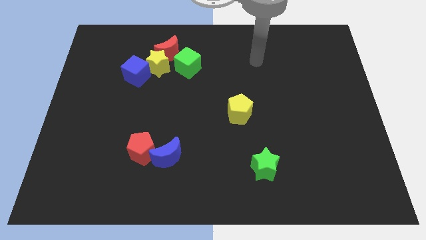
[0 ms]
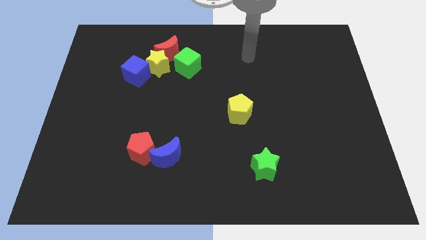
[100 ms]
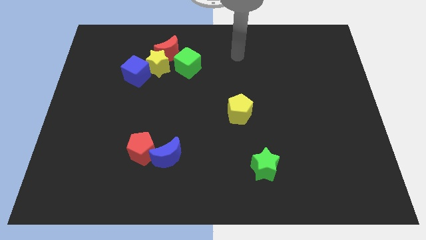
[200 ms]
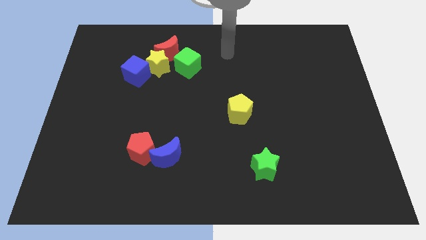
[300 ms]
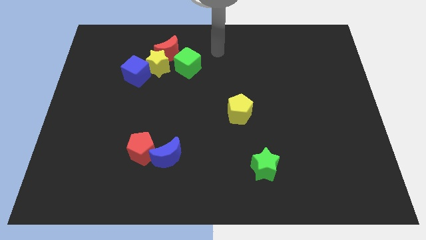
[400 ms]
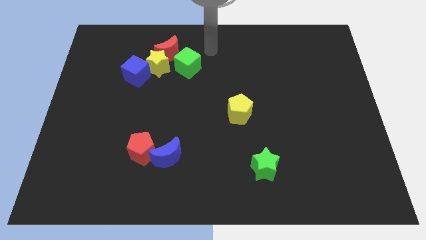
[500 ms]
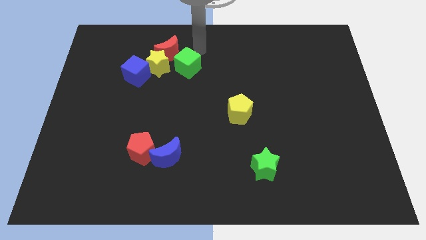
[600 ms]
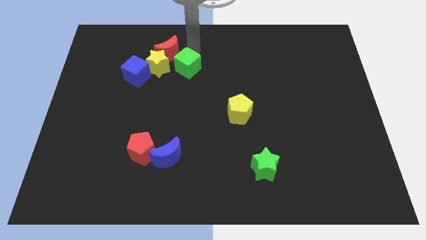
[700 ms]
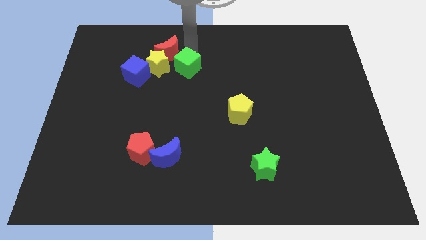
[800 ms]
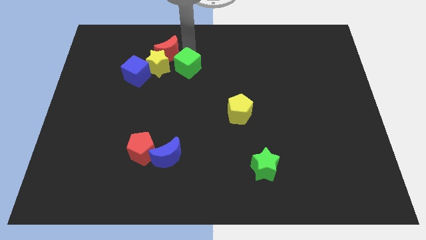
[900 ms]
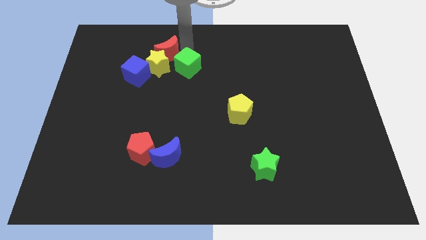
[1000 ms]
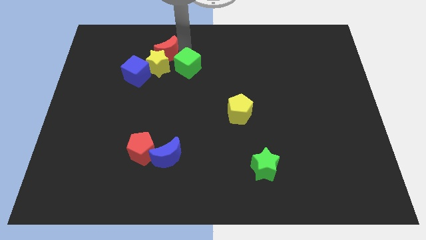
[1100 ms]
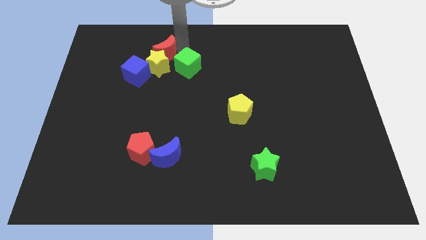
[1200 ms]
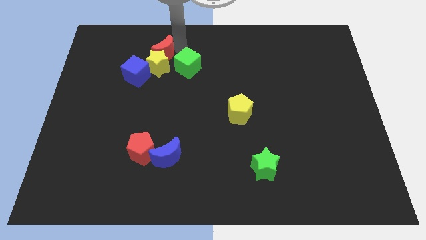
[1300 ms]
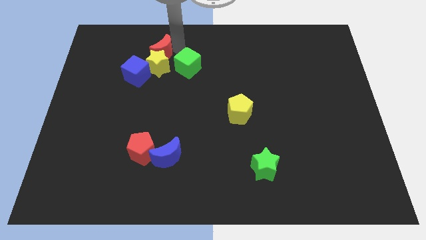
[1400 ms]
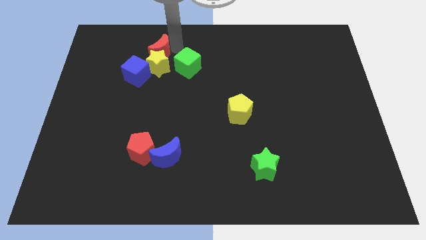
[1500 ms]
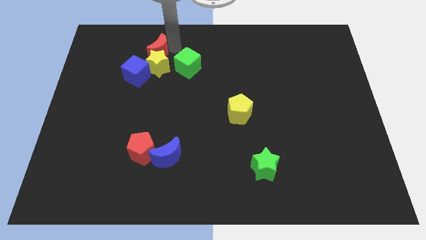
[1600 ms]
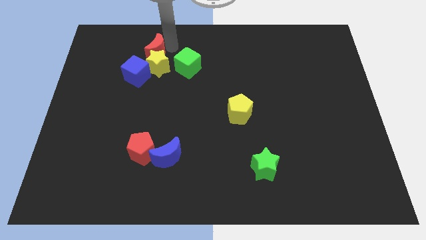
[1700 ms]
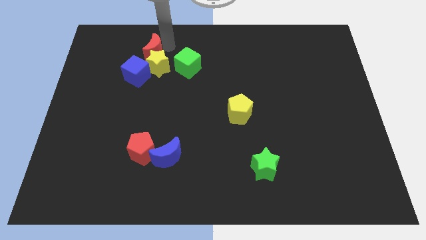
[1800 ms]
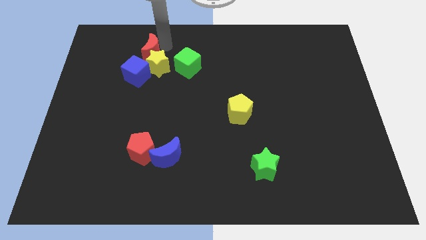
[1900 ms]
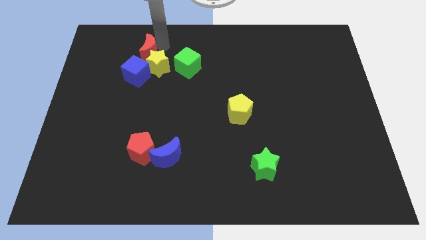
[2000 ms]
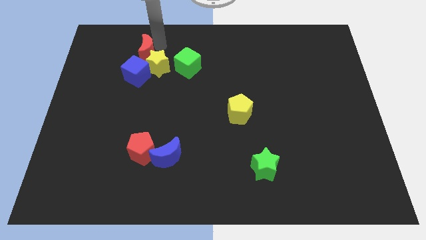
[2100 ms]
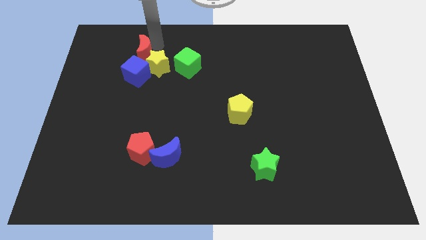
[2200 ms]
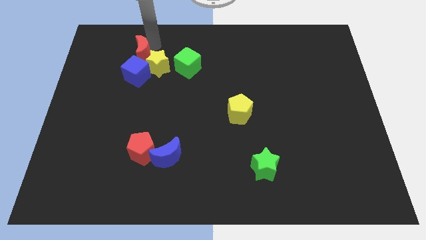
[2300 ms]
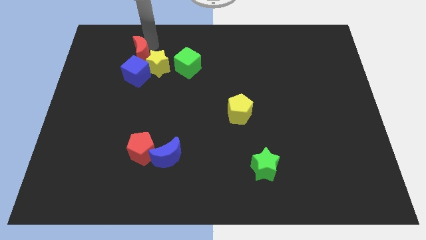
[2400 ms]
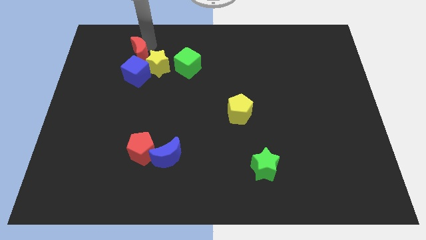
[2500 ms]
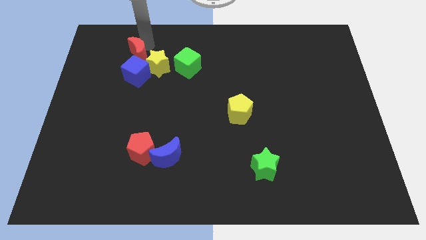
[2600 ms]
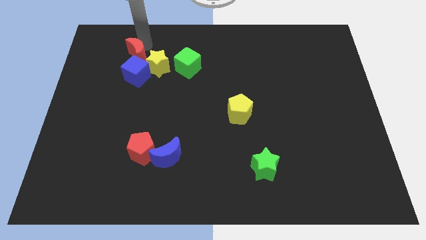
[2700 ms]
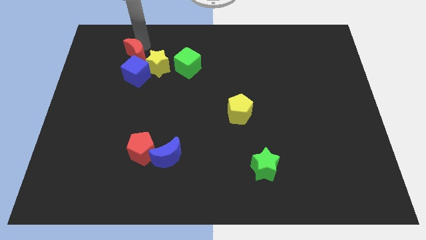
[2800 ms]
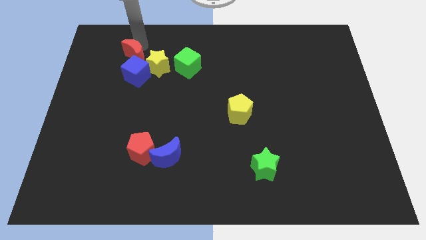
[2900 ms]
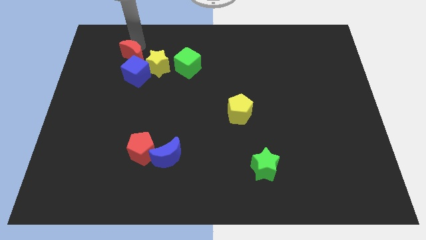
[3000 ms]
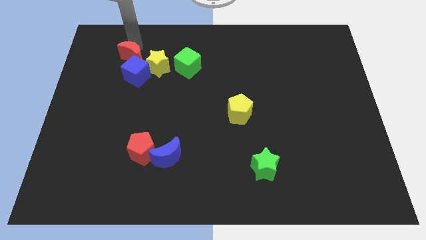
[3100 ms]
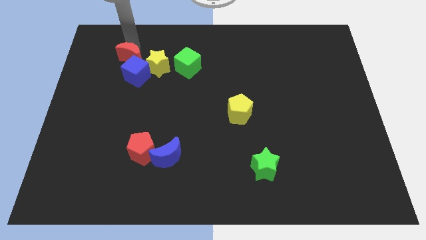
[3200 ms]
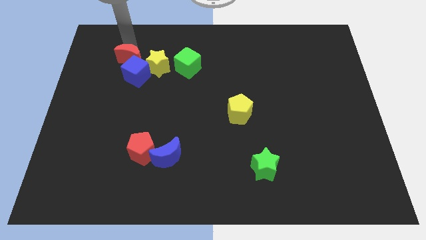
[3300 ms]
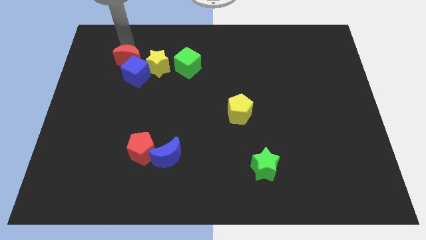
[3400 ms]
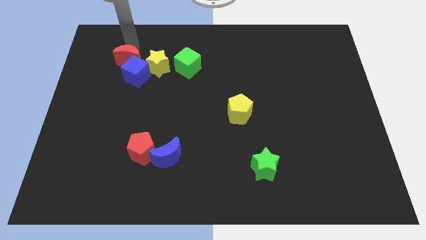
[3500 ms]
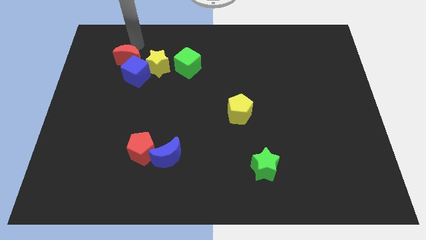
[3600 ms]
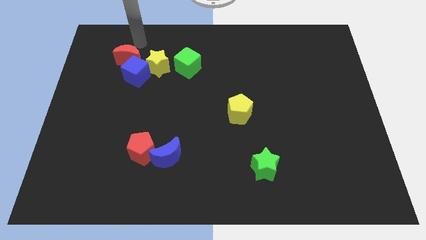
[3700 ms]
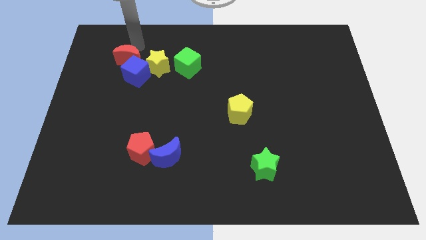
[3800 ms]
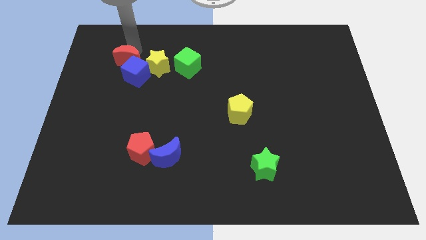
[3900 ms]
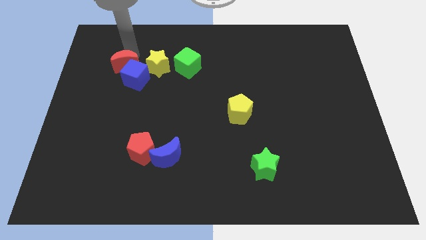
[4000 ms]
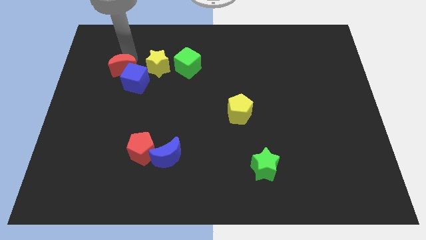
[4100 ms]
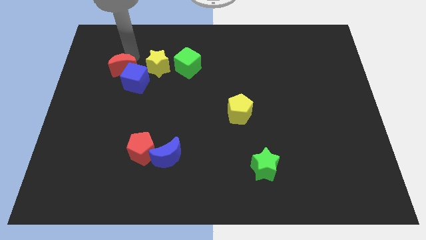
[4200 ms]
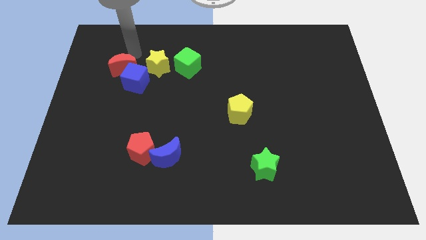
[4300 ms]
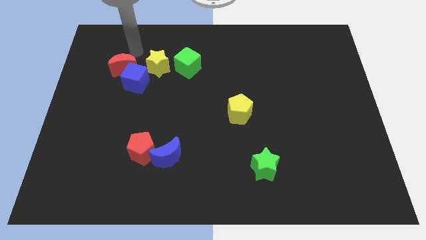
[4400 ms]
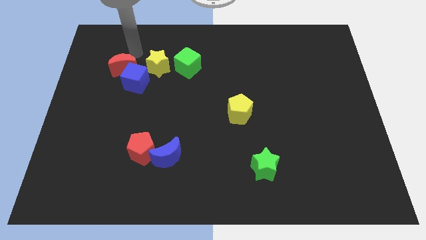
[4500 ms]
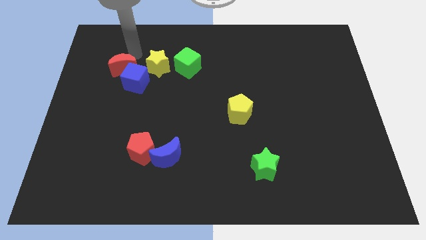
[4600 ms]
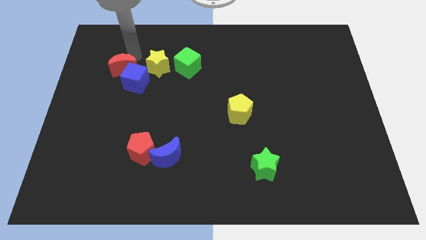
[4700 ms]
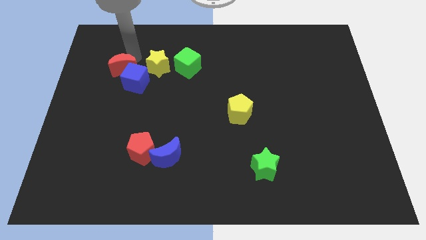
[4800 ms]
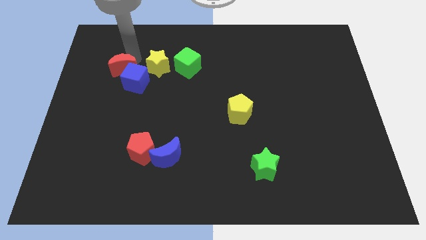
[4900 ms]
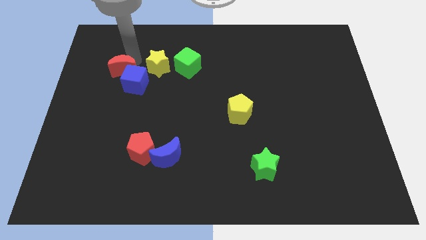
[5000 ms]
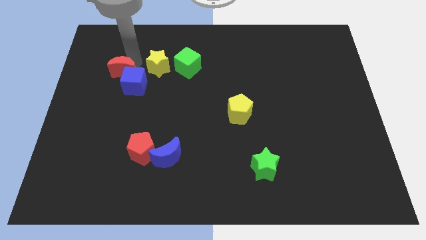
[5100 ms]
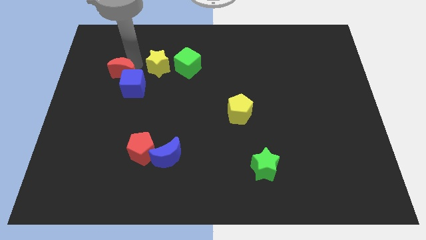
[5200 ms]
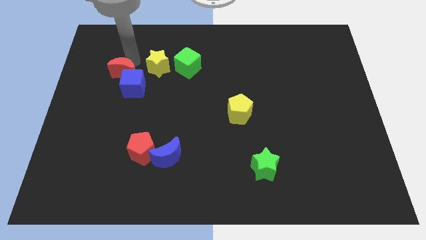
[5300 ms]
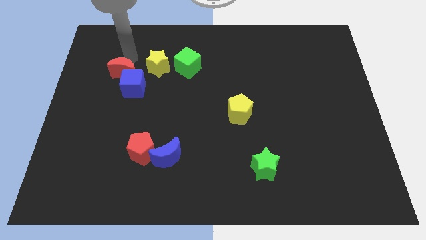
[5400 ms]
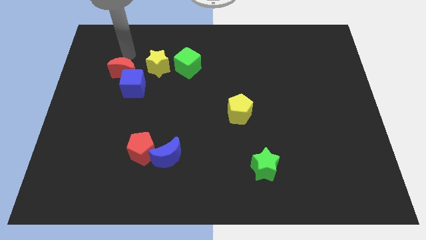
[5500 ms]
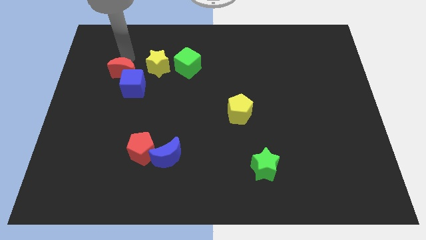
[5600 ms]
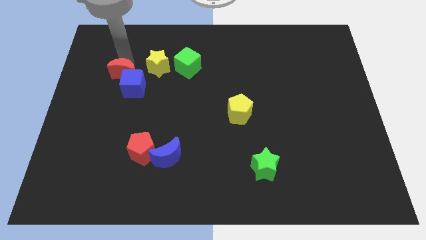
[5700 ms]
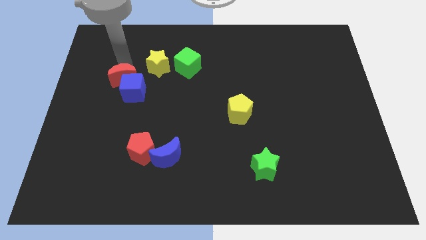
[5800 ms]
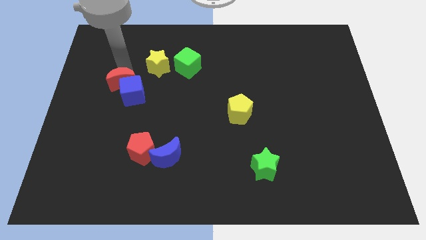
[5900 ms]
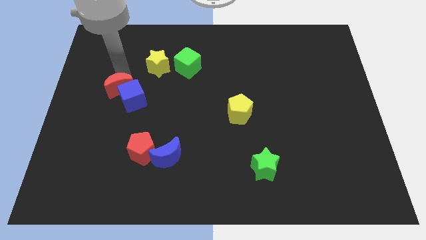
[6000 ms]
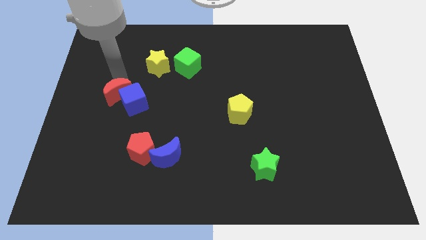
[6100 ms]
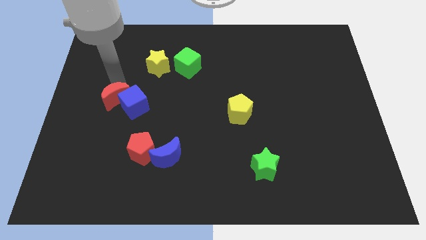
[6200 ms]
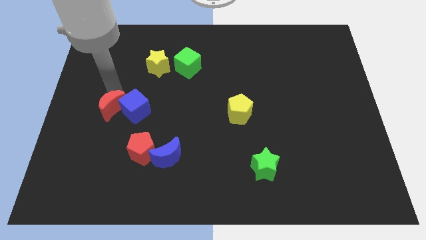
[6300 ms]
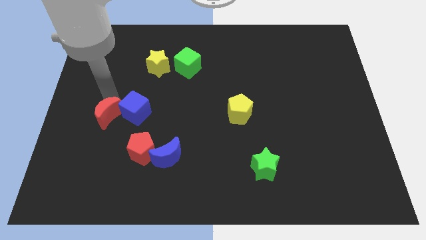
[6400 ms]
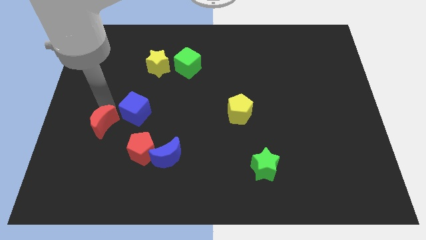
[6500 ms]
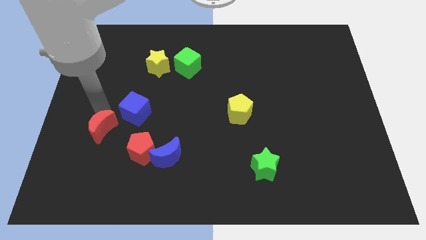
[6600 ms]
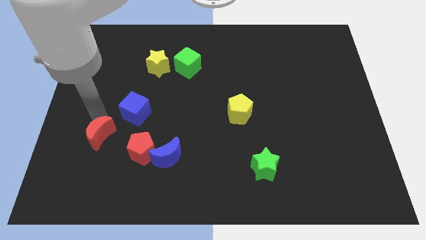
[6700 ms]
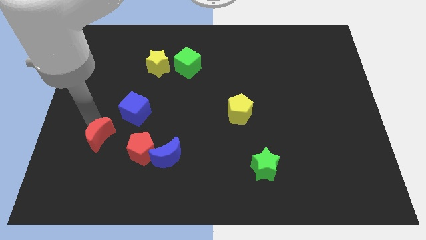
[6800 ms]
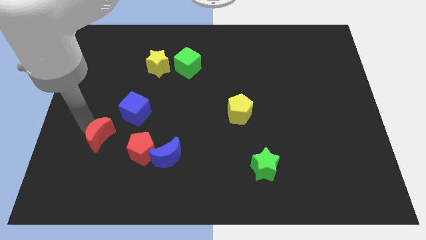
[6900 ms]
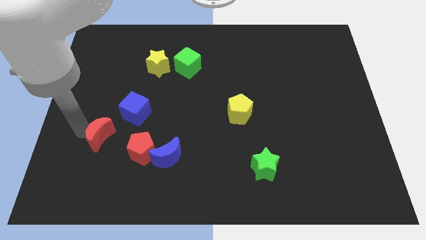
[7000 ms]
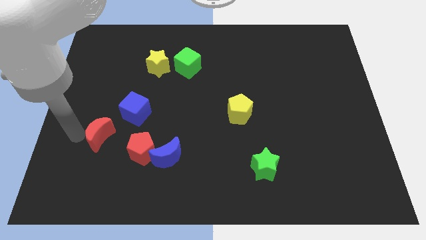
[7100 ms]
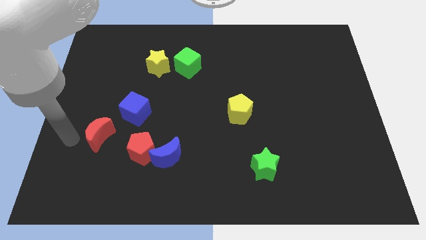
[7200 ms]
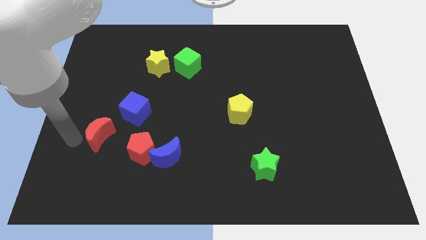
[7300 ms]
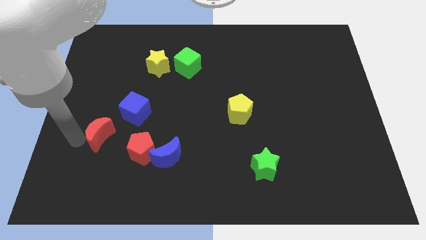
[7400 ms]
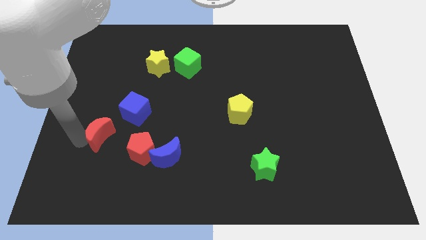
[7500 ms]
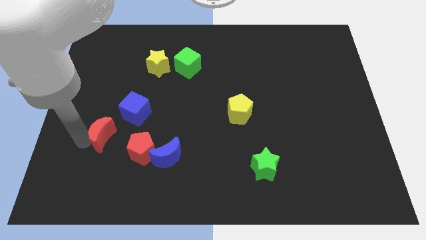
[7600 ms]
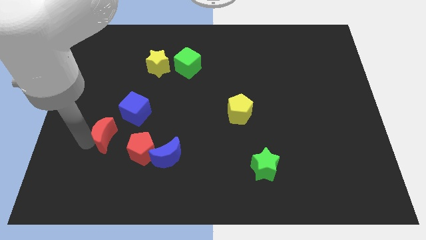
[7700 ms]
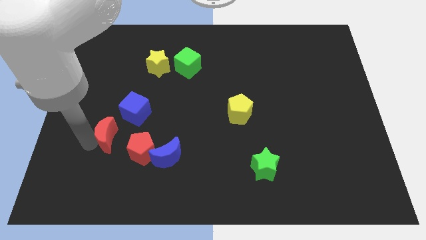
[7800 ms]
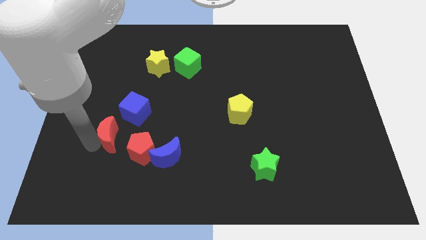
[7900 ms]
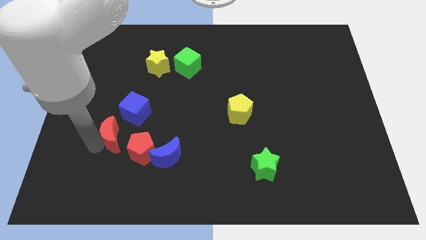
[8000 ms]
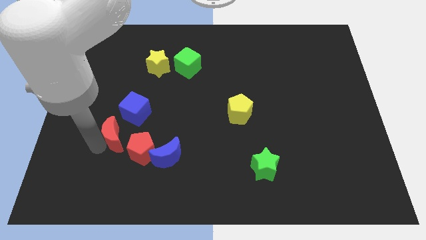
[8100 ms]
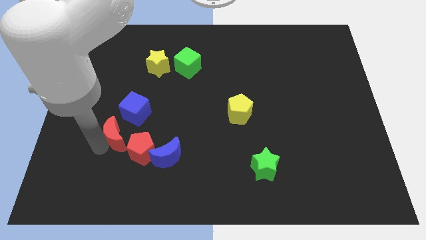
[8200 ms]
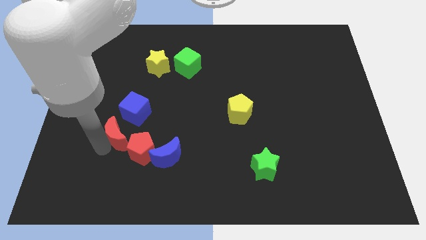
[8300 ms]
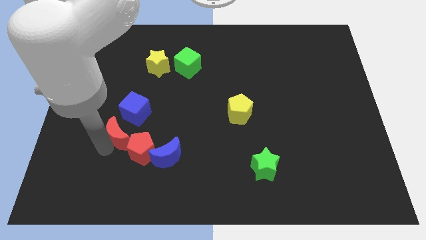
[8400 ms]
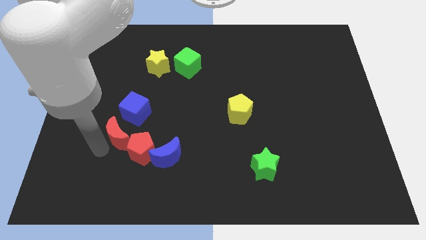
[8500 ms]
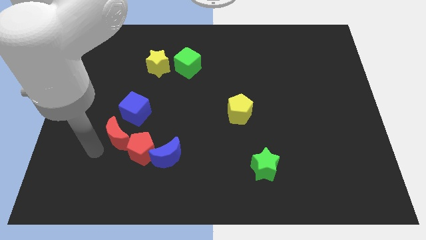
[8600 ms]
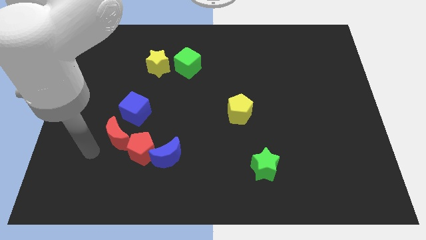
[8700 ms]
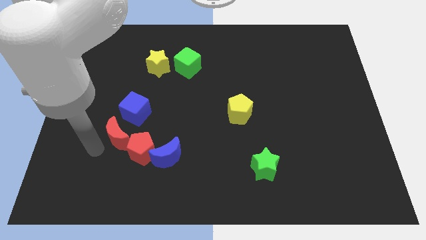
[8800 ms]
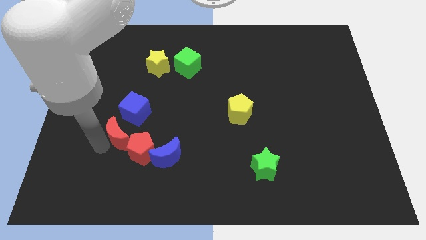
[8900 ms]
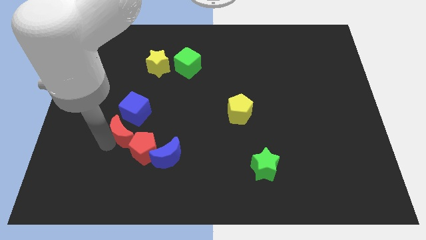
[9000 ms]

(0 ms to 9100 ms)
put the red moon to the red pentagon
